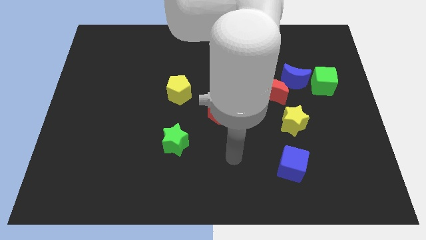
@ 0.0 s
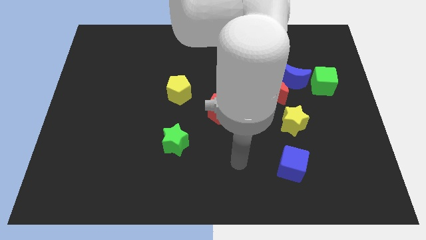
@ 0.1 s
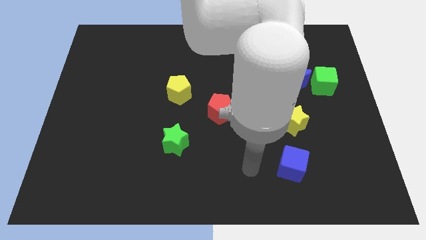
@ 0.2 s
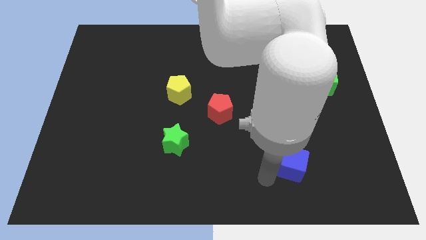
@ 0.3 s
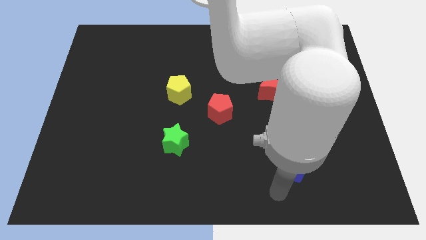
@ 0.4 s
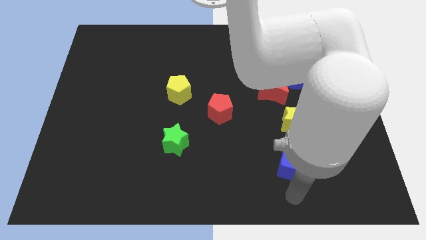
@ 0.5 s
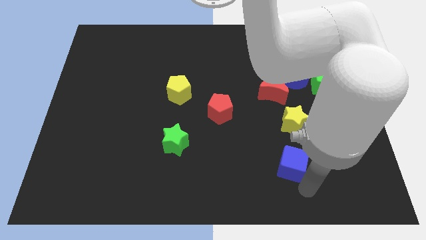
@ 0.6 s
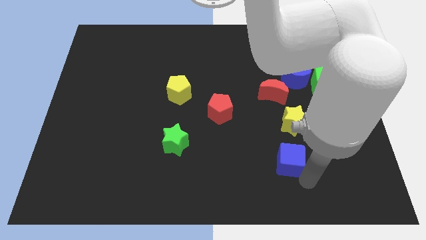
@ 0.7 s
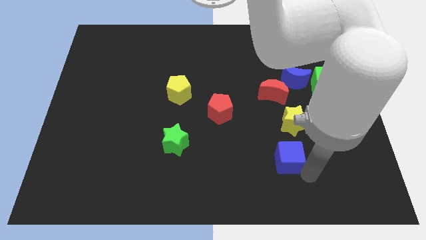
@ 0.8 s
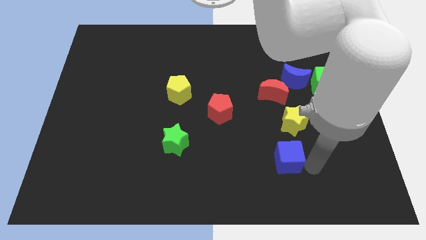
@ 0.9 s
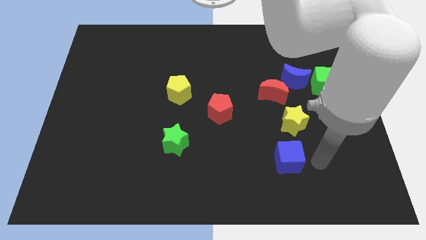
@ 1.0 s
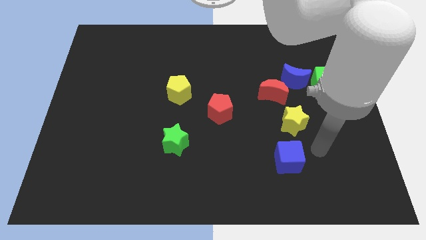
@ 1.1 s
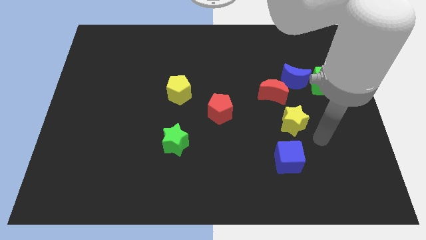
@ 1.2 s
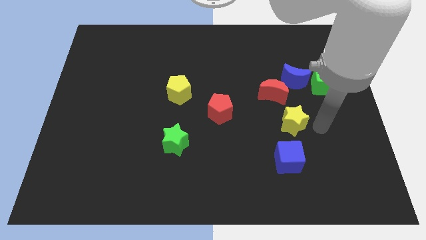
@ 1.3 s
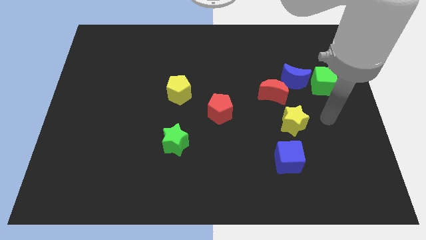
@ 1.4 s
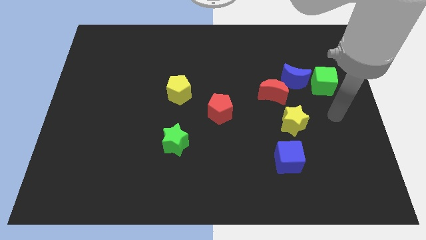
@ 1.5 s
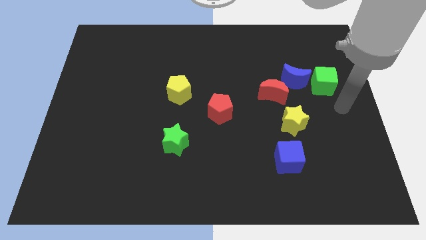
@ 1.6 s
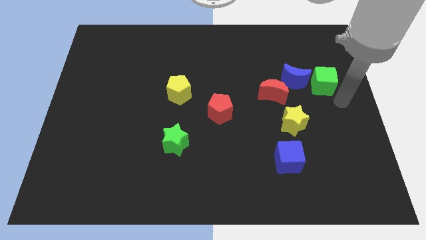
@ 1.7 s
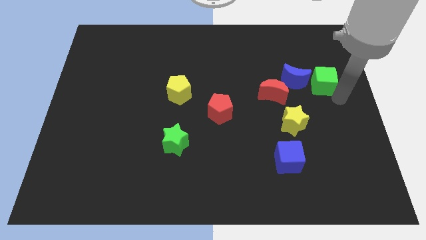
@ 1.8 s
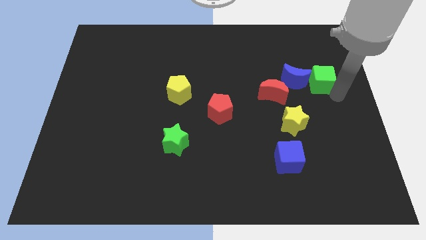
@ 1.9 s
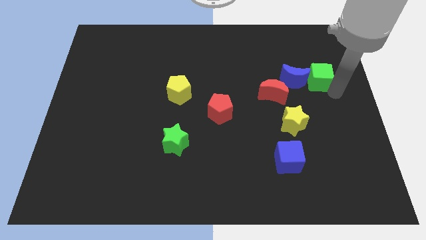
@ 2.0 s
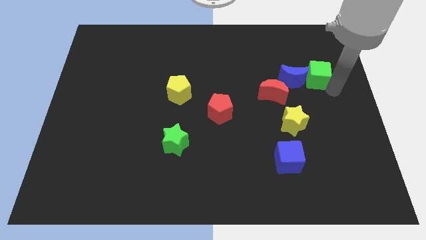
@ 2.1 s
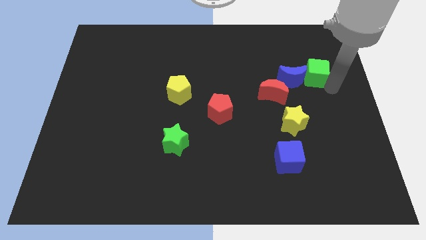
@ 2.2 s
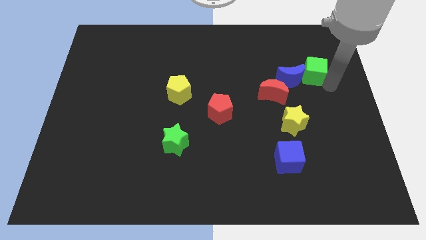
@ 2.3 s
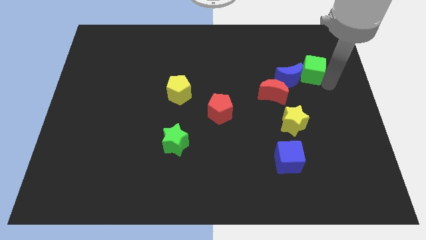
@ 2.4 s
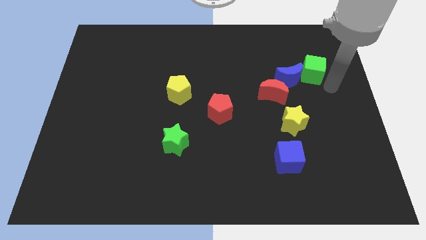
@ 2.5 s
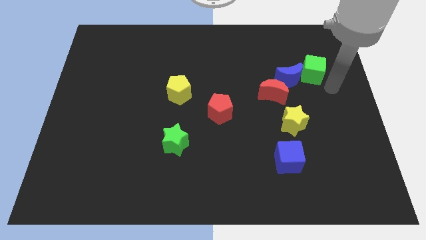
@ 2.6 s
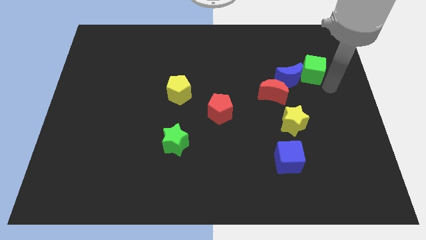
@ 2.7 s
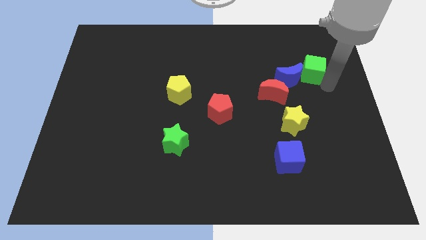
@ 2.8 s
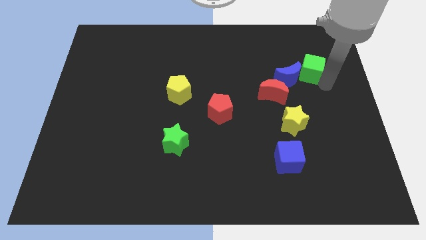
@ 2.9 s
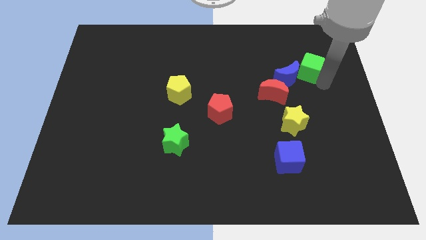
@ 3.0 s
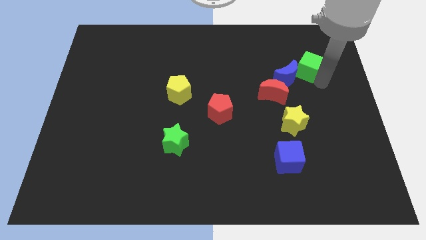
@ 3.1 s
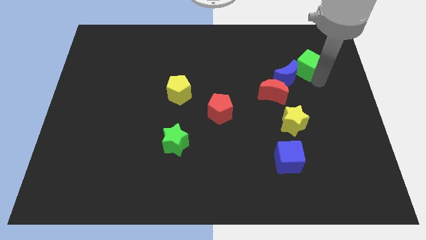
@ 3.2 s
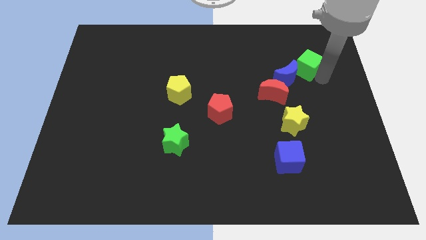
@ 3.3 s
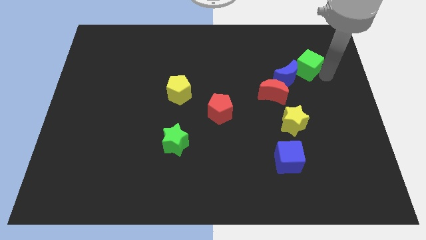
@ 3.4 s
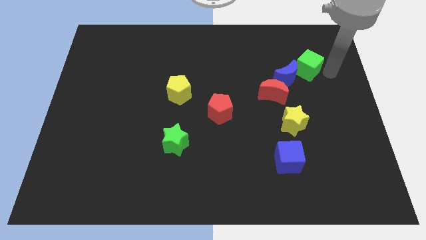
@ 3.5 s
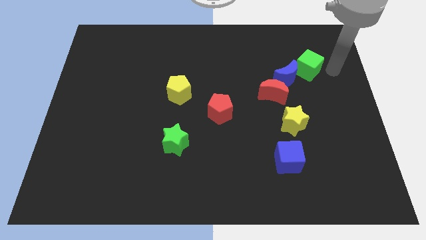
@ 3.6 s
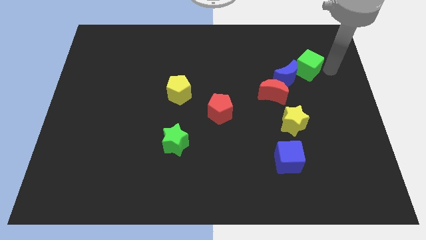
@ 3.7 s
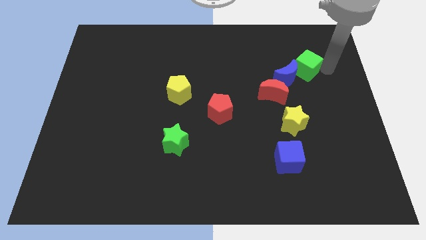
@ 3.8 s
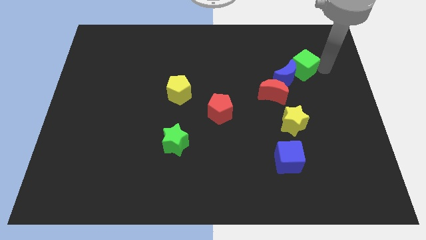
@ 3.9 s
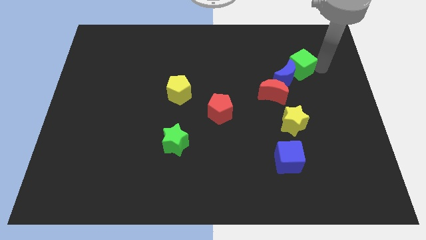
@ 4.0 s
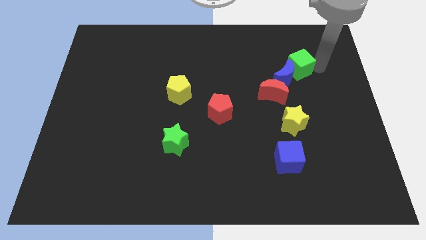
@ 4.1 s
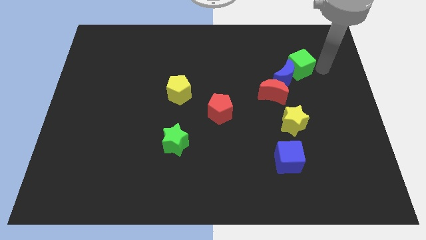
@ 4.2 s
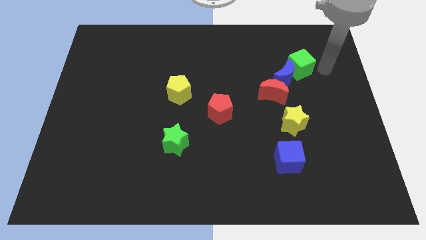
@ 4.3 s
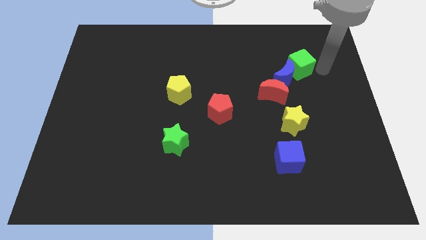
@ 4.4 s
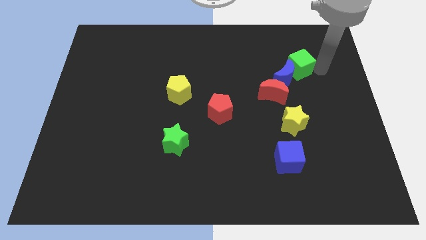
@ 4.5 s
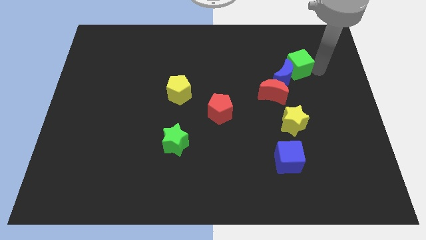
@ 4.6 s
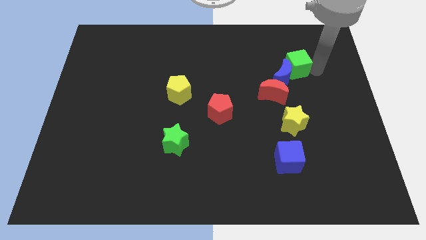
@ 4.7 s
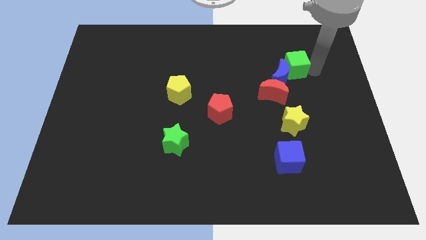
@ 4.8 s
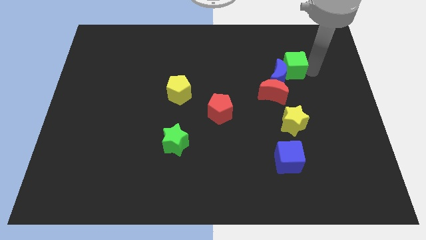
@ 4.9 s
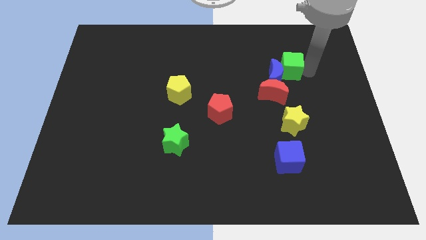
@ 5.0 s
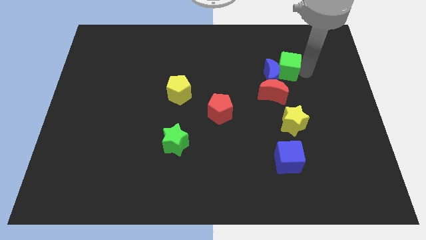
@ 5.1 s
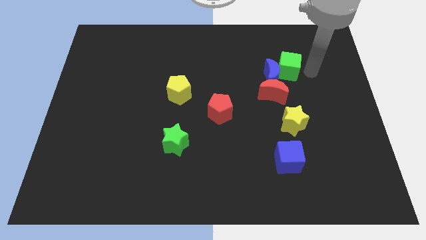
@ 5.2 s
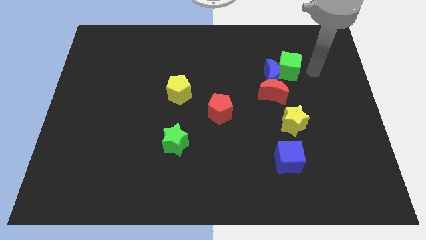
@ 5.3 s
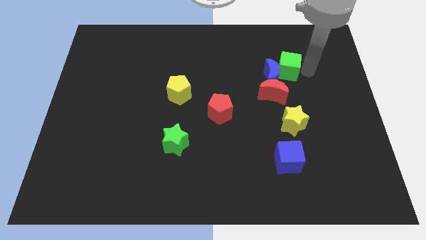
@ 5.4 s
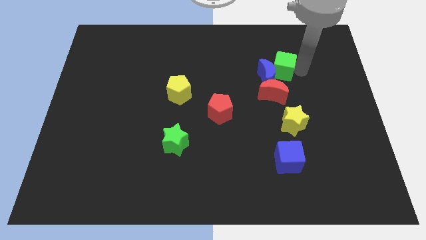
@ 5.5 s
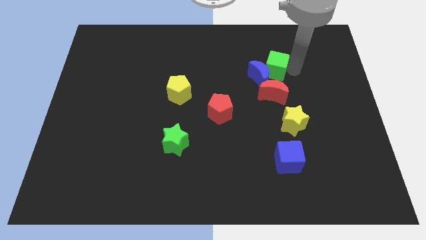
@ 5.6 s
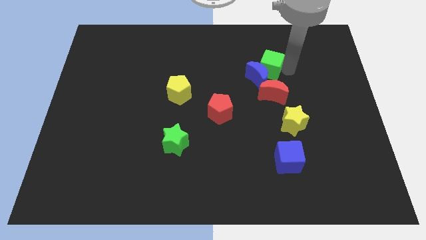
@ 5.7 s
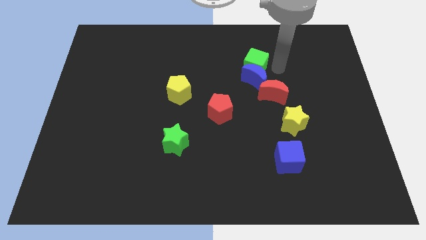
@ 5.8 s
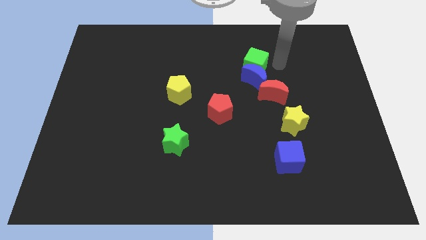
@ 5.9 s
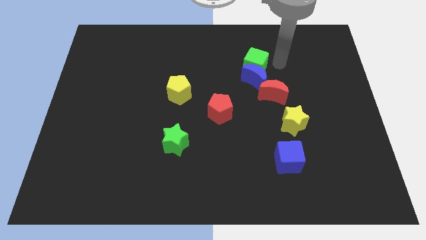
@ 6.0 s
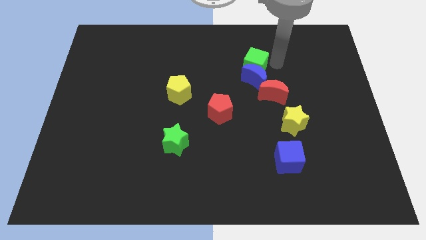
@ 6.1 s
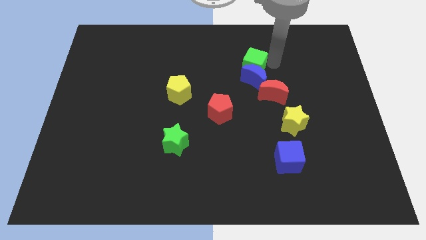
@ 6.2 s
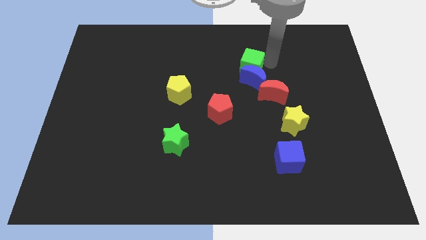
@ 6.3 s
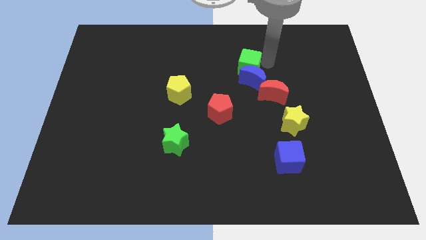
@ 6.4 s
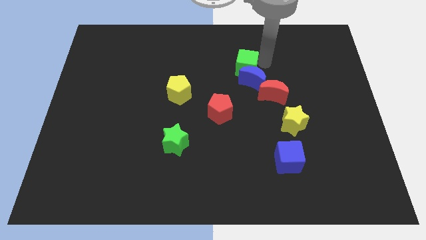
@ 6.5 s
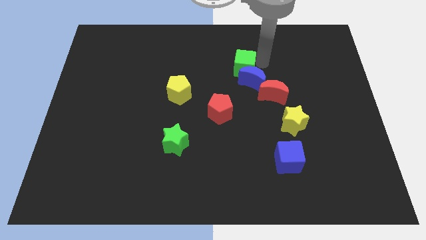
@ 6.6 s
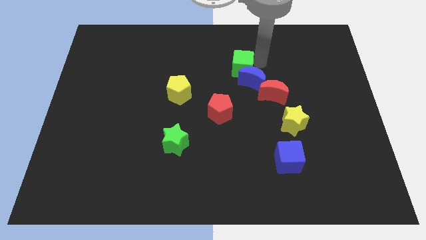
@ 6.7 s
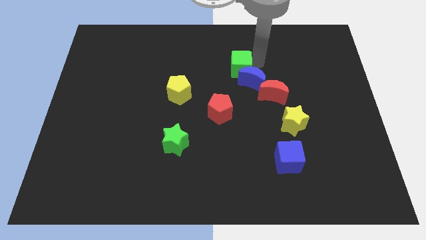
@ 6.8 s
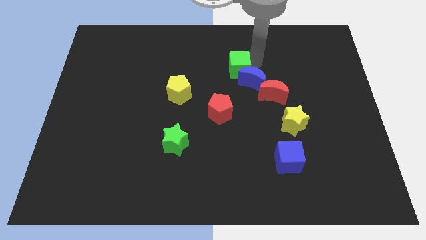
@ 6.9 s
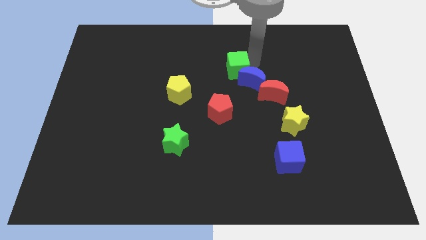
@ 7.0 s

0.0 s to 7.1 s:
slide the green cube to the left

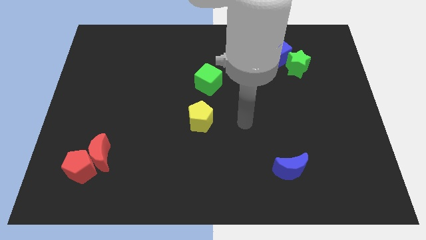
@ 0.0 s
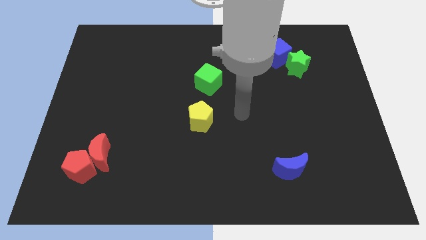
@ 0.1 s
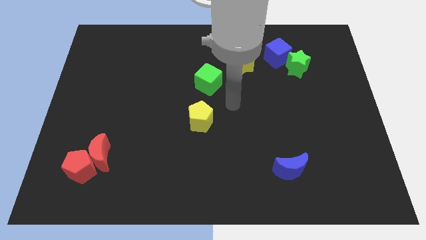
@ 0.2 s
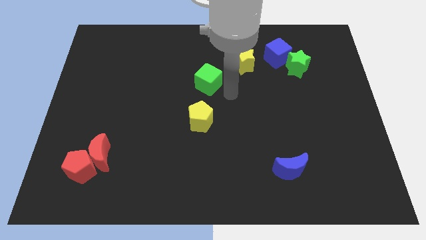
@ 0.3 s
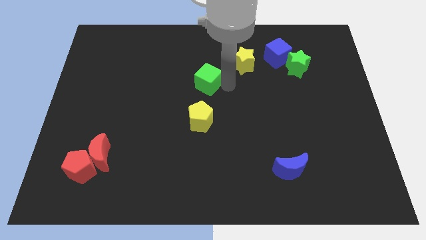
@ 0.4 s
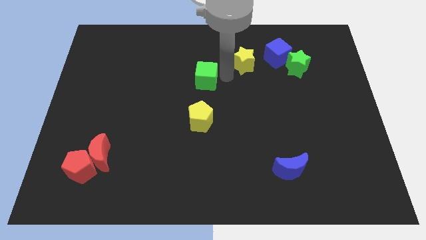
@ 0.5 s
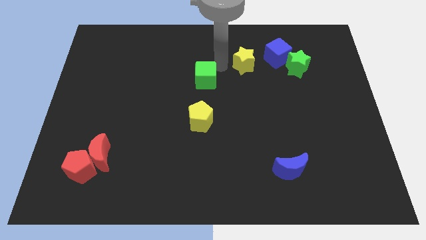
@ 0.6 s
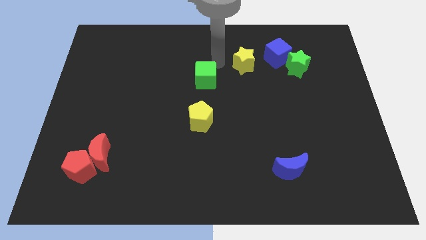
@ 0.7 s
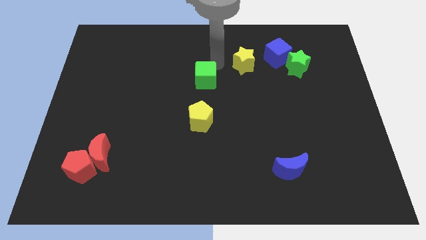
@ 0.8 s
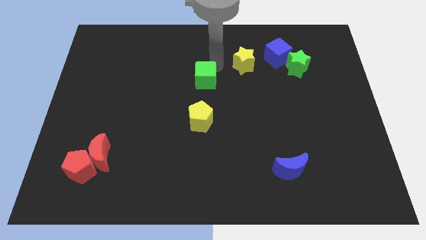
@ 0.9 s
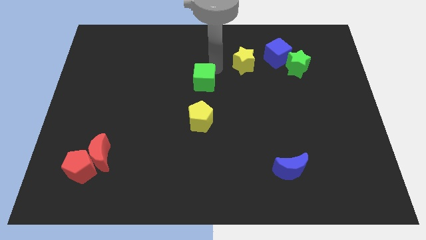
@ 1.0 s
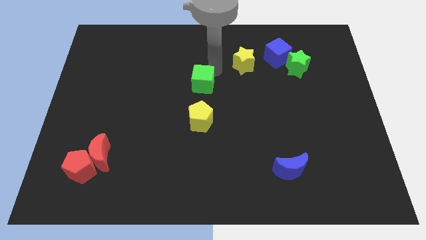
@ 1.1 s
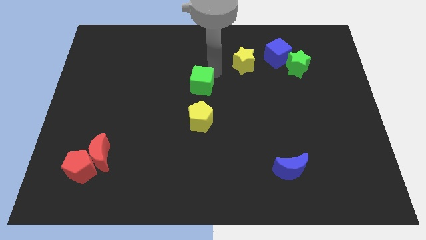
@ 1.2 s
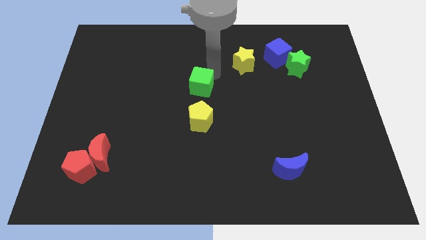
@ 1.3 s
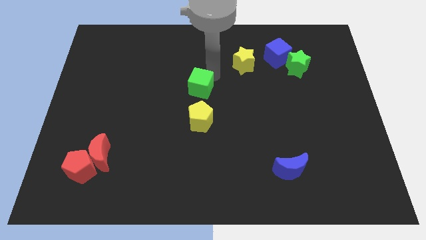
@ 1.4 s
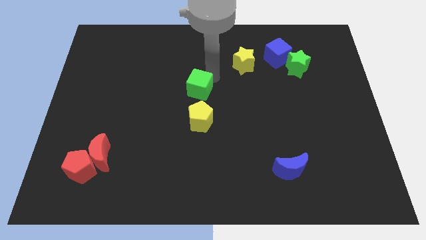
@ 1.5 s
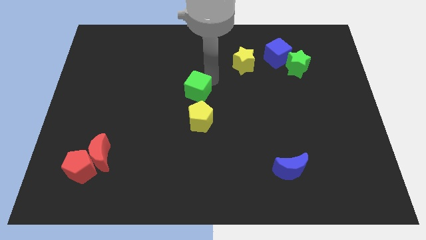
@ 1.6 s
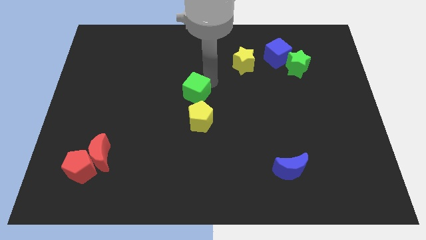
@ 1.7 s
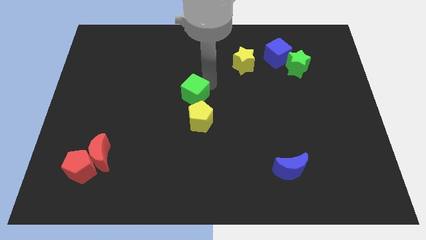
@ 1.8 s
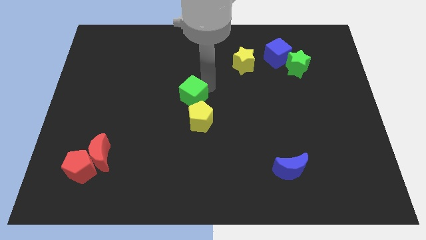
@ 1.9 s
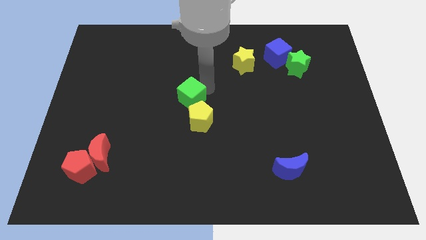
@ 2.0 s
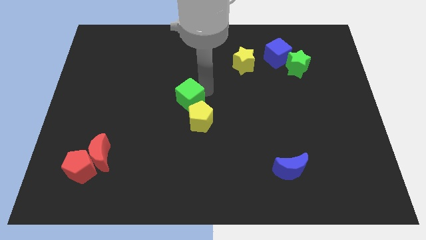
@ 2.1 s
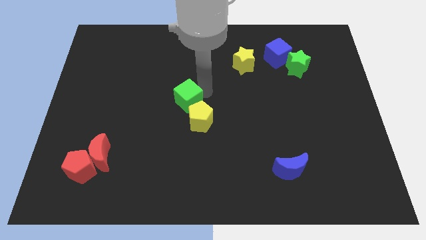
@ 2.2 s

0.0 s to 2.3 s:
move the green cube downwards and then left a bit
